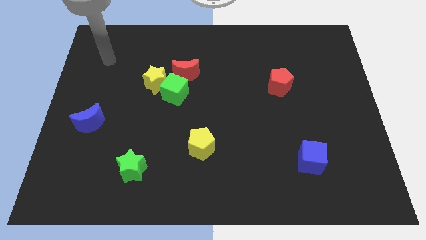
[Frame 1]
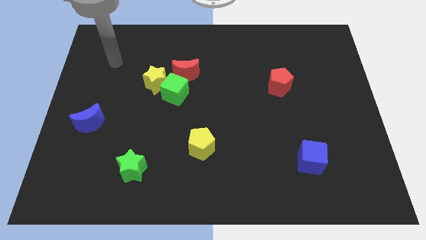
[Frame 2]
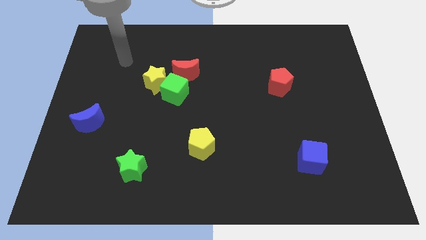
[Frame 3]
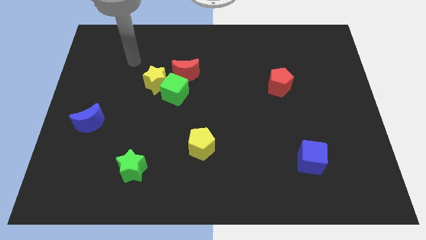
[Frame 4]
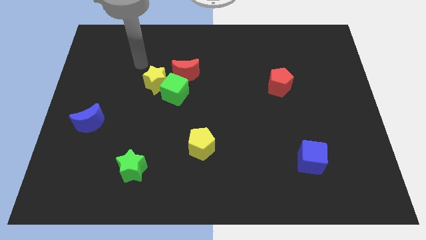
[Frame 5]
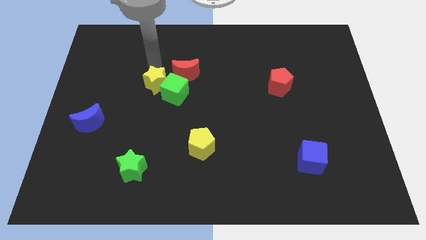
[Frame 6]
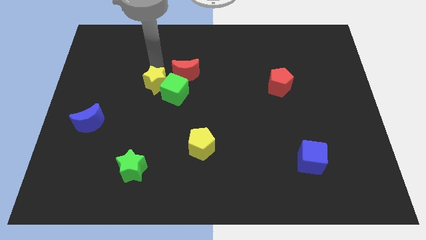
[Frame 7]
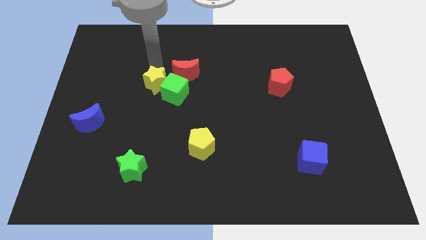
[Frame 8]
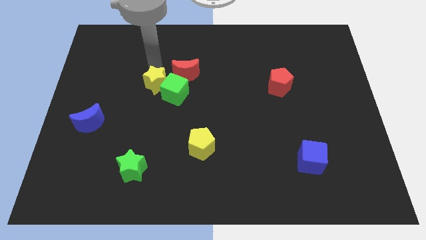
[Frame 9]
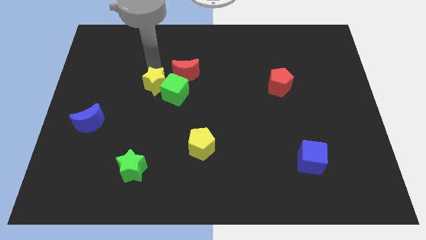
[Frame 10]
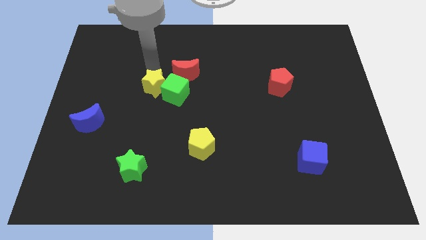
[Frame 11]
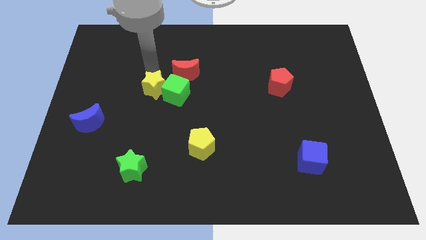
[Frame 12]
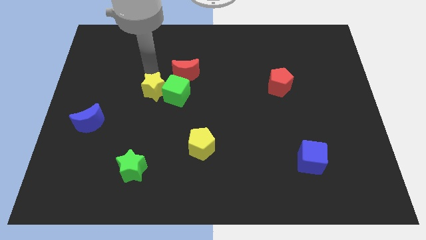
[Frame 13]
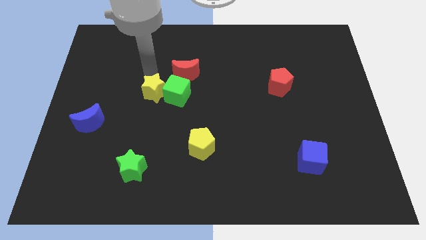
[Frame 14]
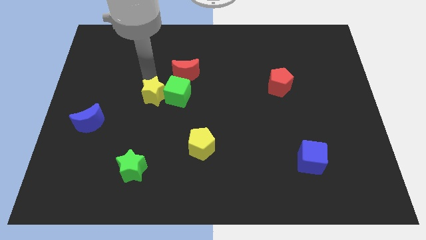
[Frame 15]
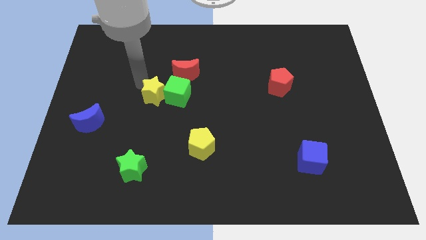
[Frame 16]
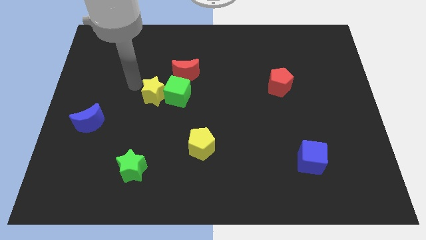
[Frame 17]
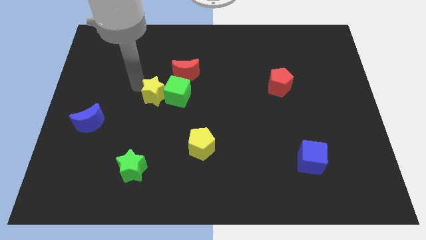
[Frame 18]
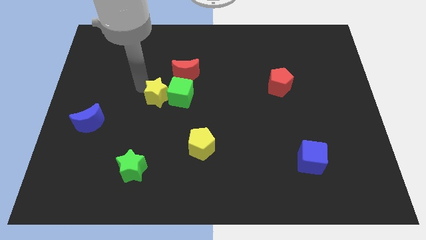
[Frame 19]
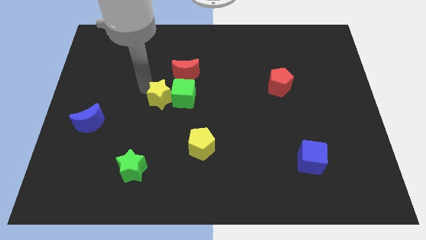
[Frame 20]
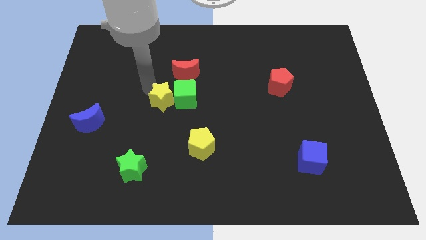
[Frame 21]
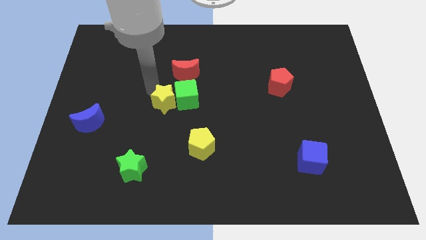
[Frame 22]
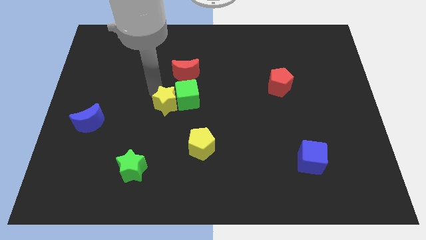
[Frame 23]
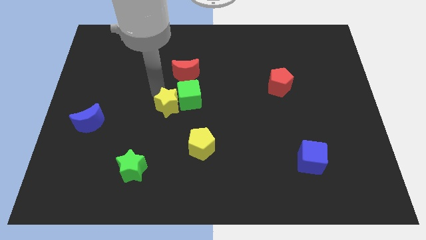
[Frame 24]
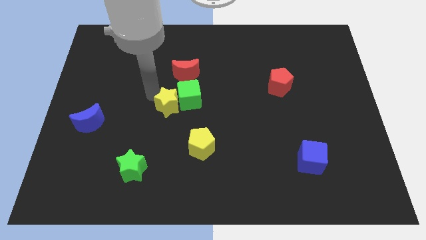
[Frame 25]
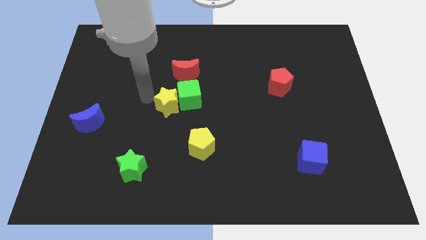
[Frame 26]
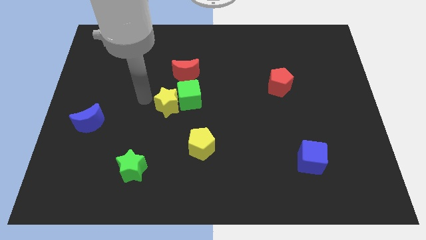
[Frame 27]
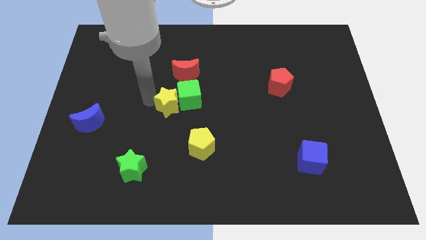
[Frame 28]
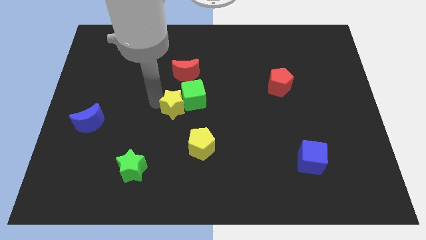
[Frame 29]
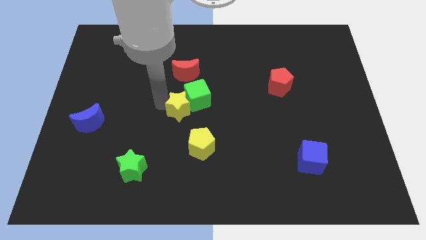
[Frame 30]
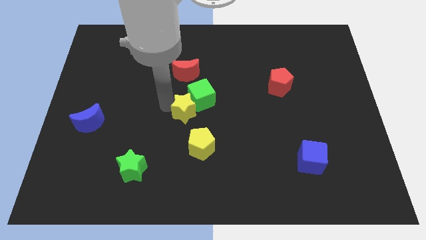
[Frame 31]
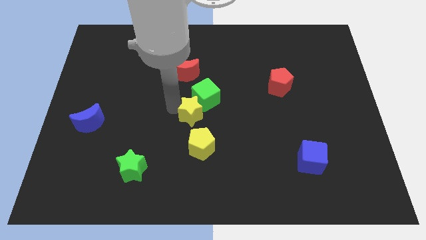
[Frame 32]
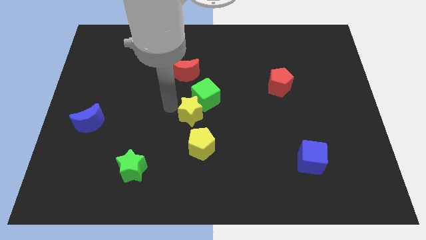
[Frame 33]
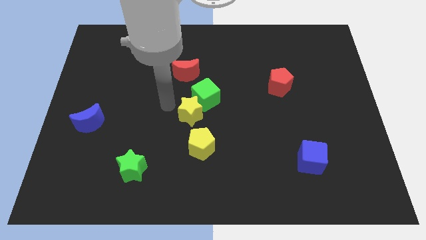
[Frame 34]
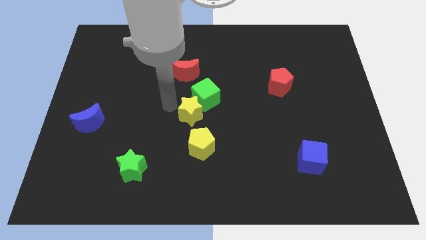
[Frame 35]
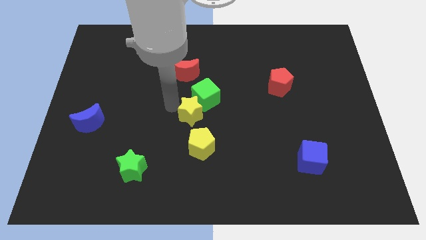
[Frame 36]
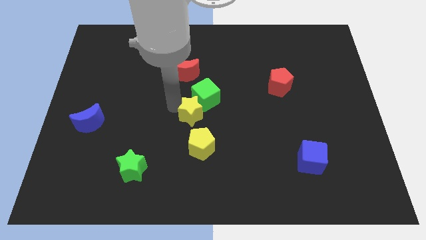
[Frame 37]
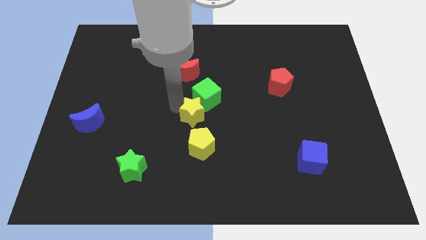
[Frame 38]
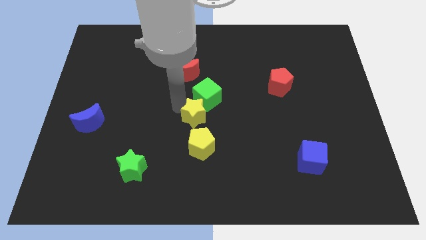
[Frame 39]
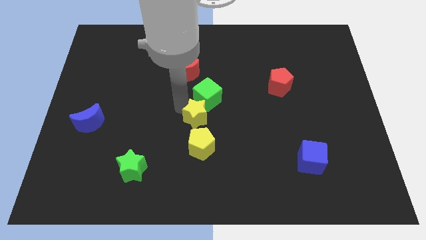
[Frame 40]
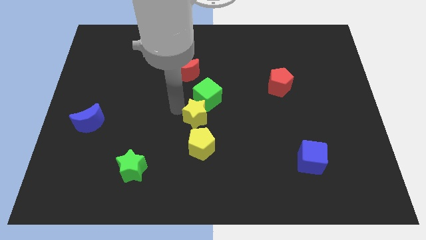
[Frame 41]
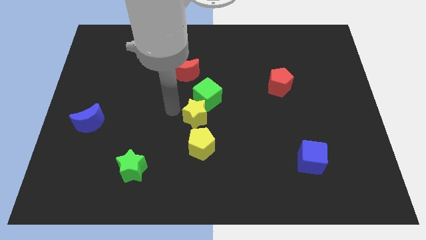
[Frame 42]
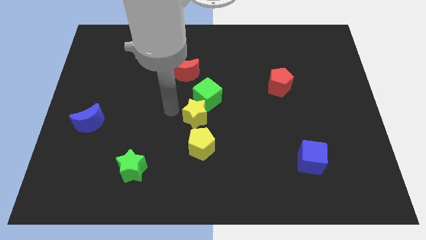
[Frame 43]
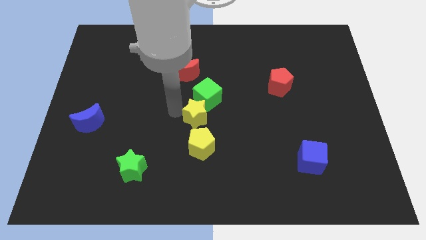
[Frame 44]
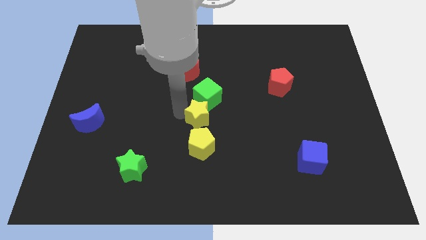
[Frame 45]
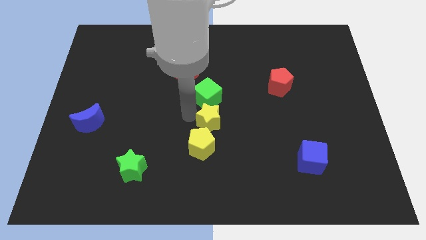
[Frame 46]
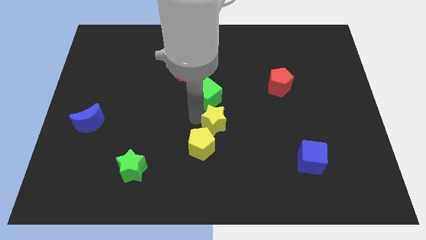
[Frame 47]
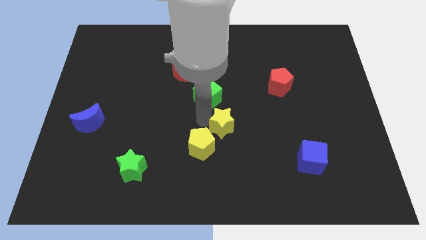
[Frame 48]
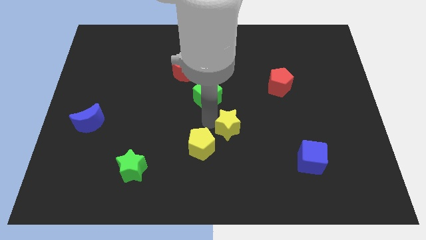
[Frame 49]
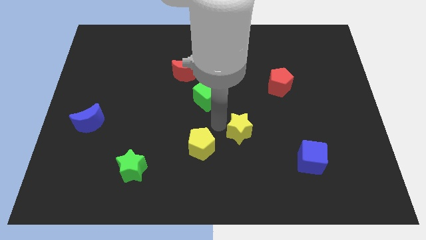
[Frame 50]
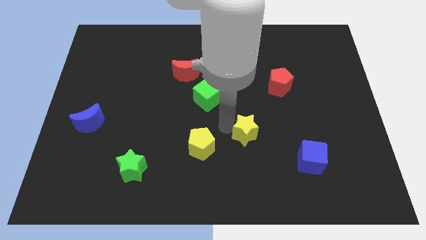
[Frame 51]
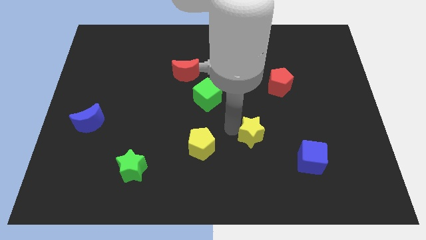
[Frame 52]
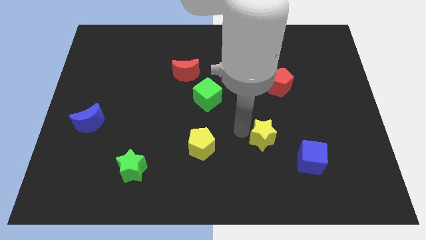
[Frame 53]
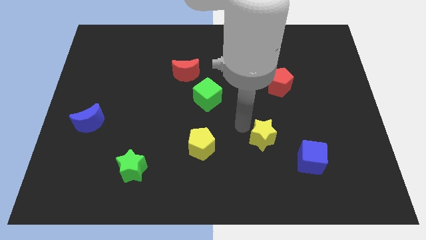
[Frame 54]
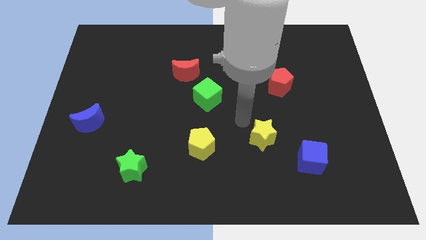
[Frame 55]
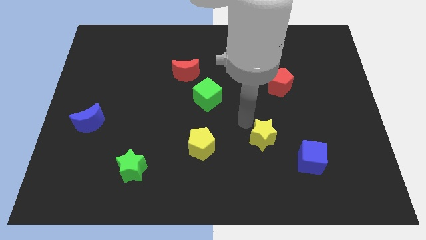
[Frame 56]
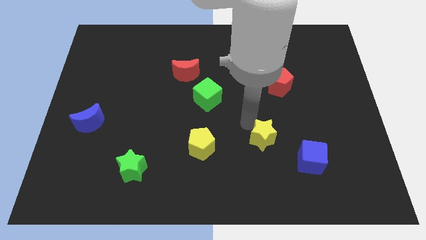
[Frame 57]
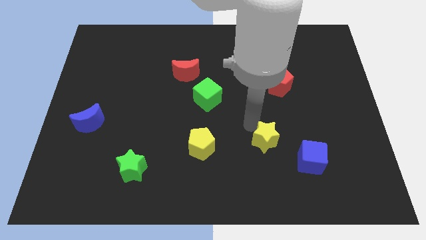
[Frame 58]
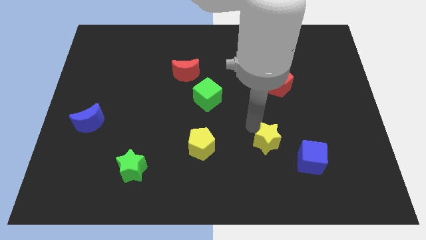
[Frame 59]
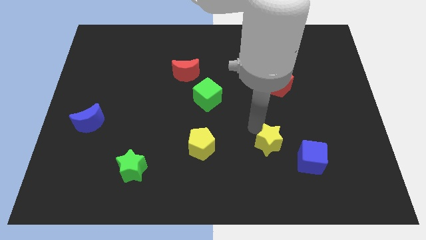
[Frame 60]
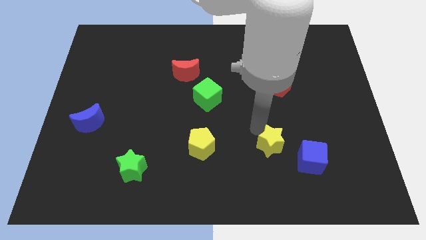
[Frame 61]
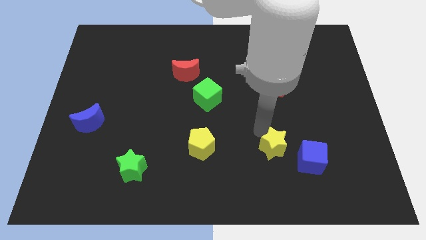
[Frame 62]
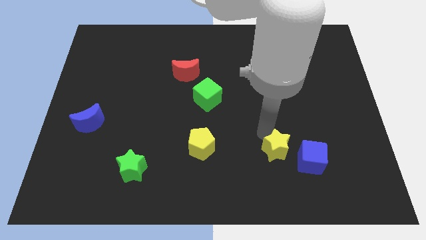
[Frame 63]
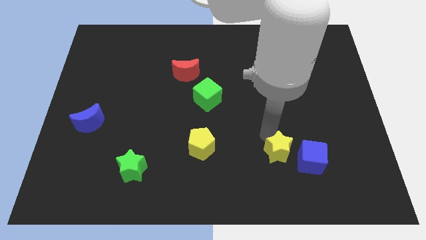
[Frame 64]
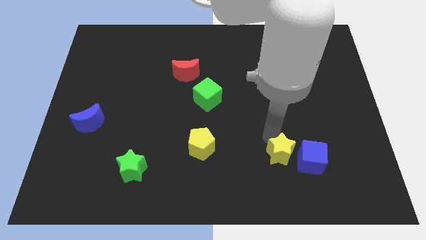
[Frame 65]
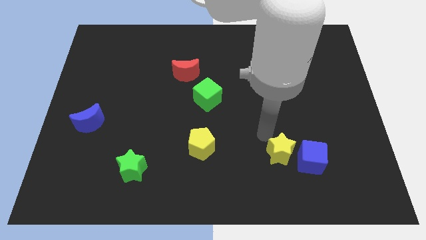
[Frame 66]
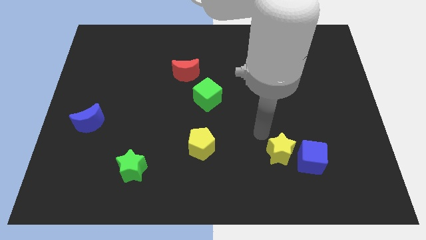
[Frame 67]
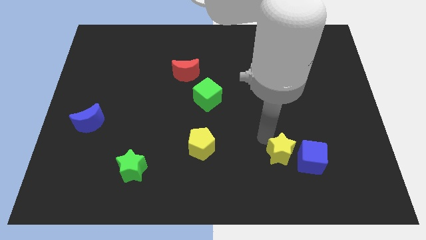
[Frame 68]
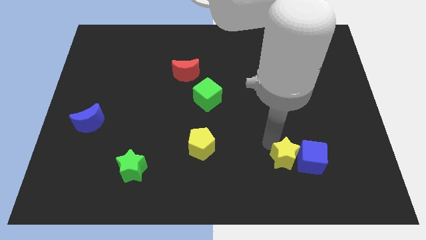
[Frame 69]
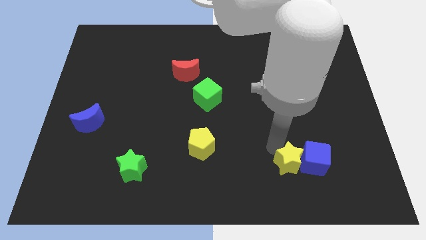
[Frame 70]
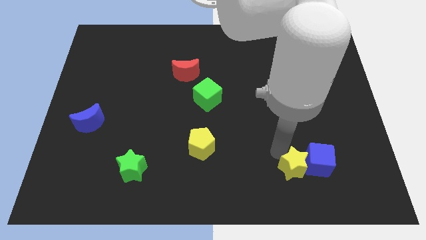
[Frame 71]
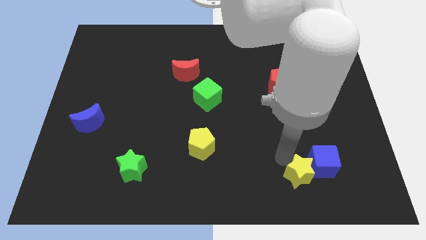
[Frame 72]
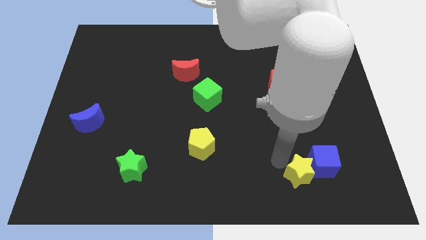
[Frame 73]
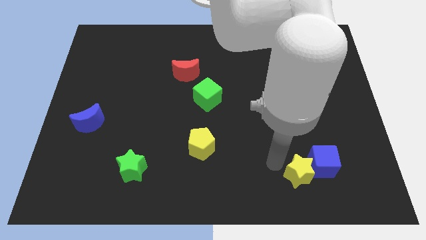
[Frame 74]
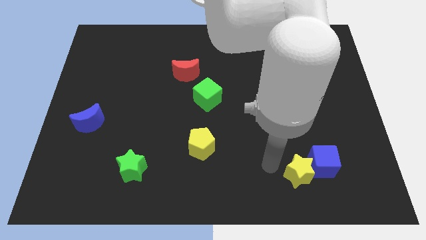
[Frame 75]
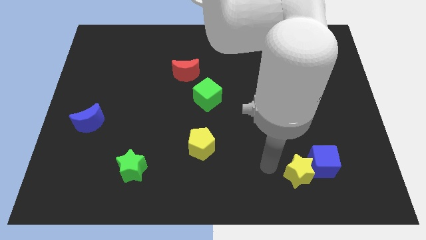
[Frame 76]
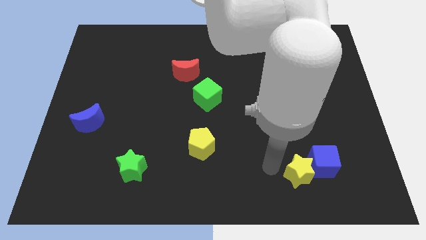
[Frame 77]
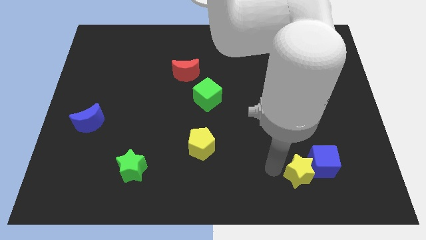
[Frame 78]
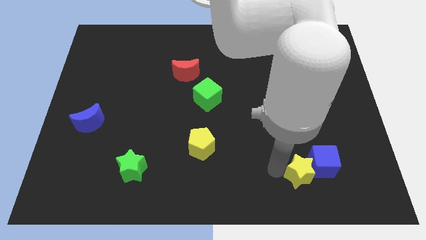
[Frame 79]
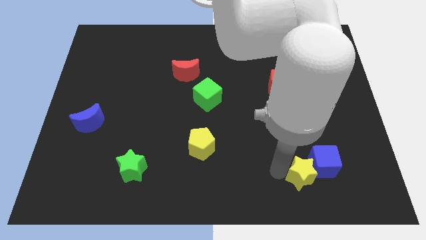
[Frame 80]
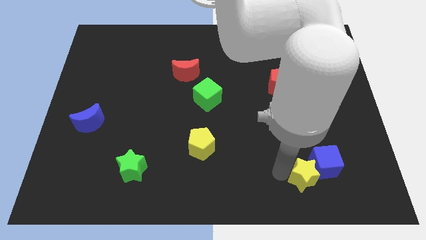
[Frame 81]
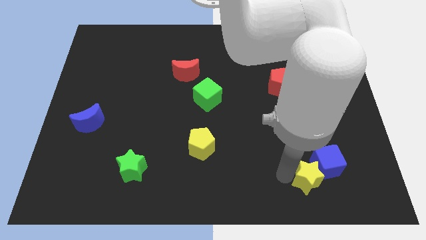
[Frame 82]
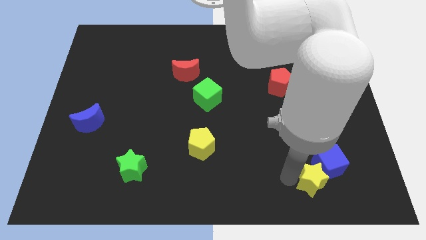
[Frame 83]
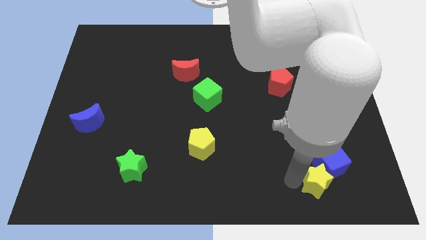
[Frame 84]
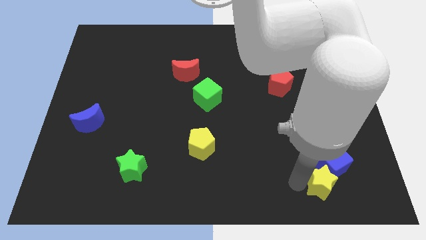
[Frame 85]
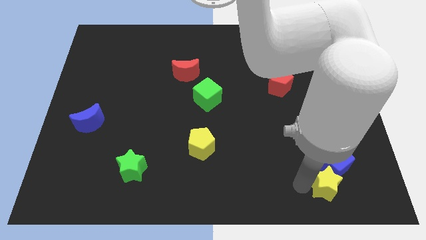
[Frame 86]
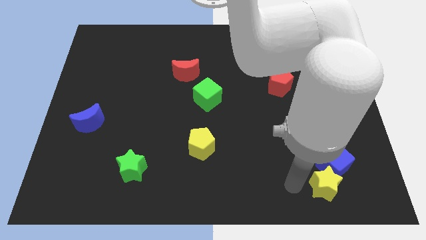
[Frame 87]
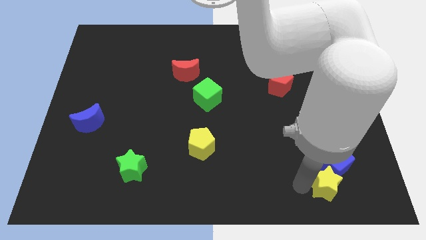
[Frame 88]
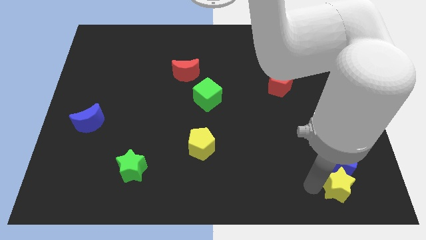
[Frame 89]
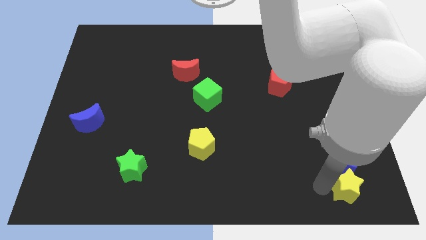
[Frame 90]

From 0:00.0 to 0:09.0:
move the yellow star diagonally down and to the right of the blue cube
